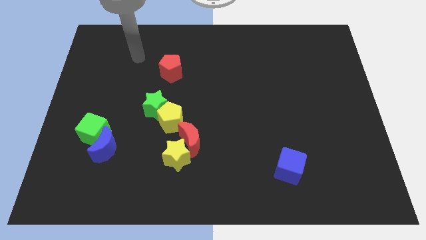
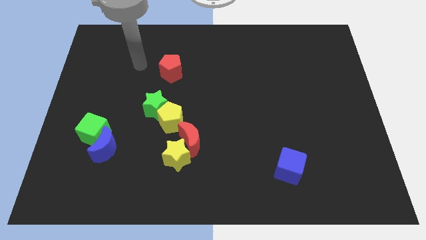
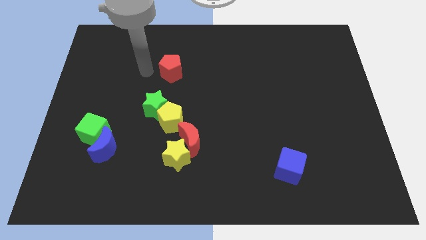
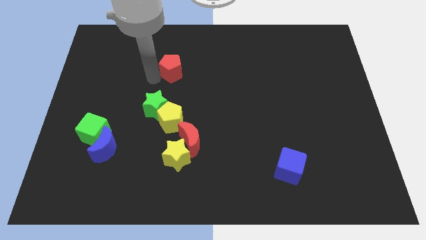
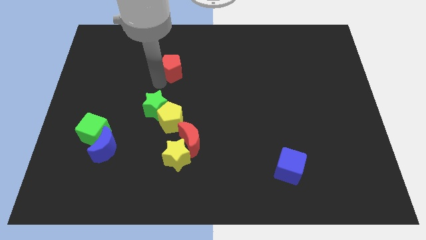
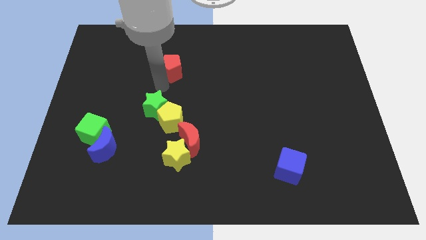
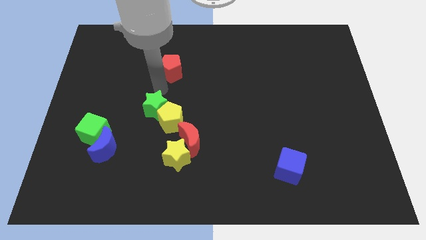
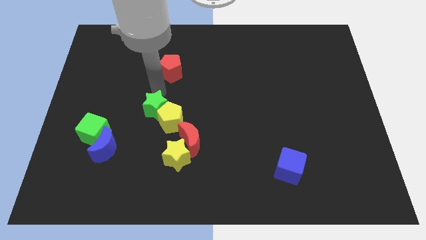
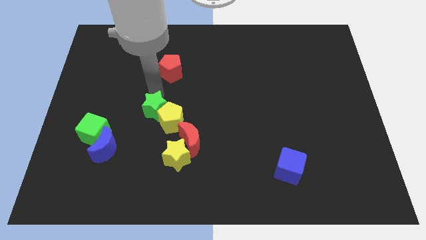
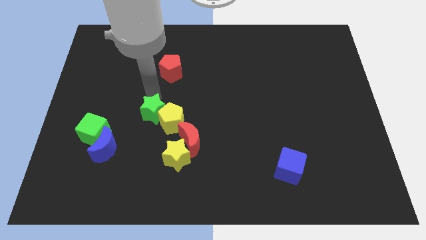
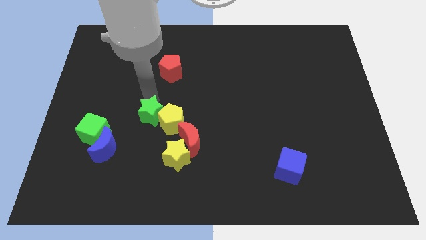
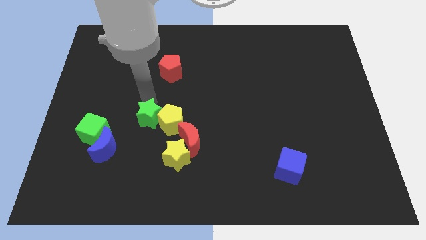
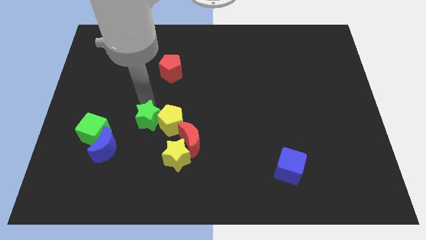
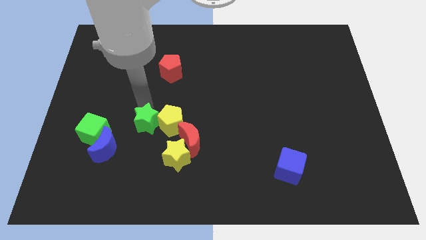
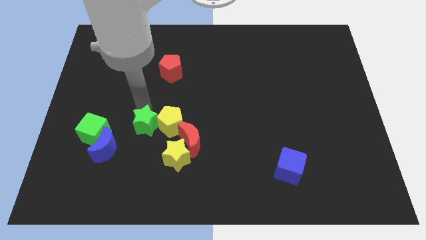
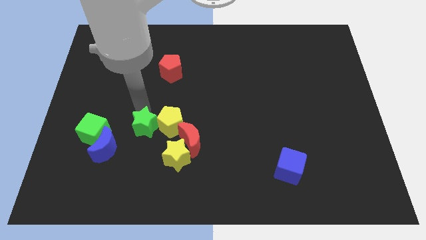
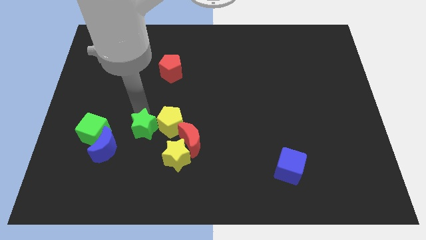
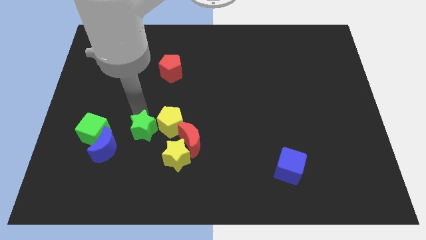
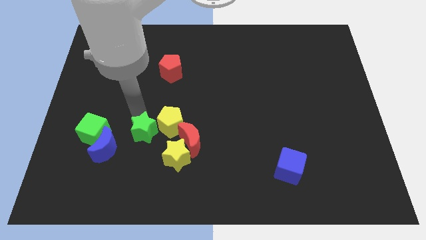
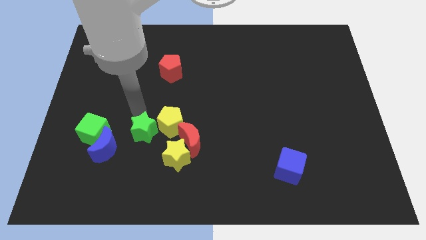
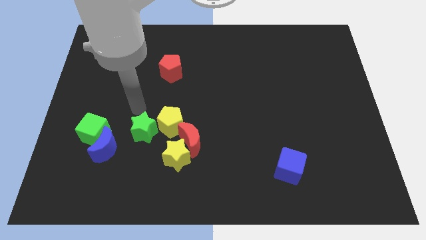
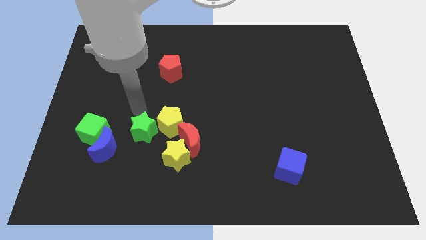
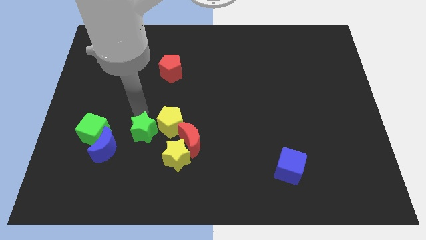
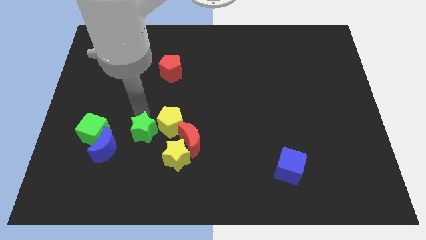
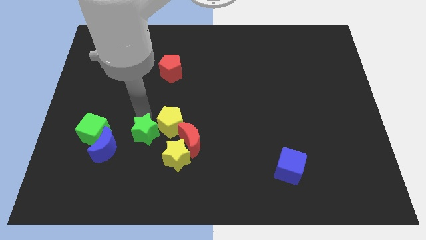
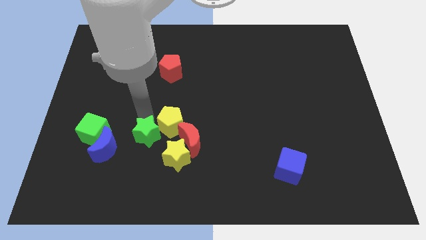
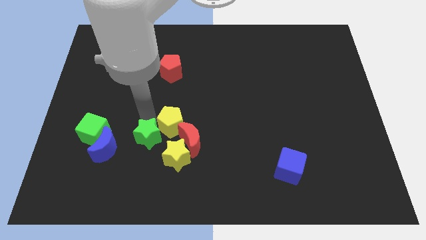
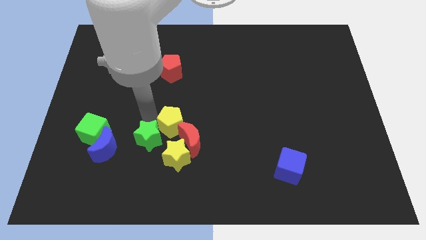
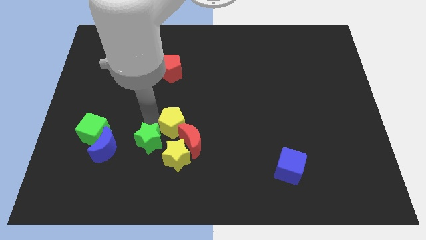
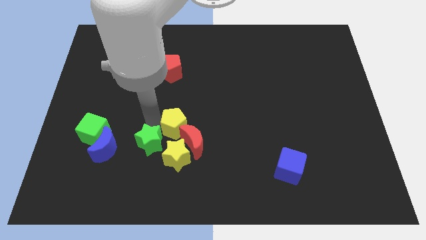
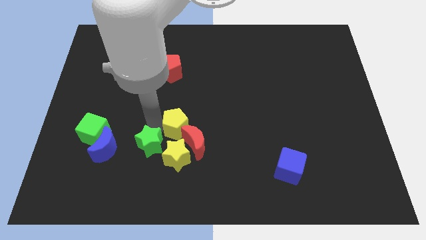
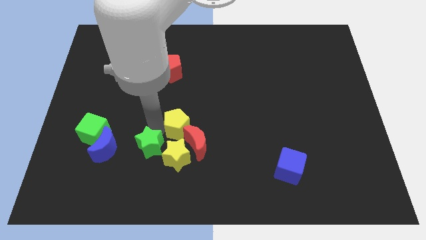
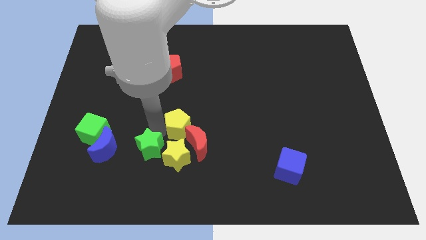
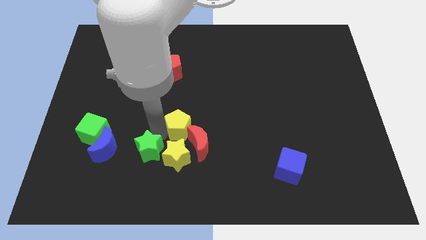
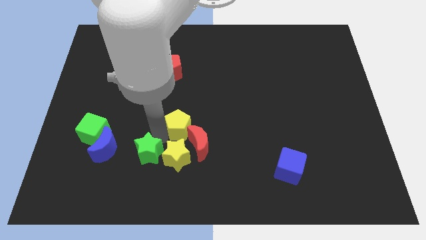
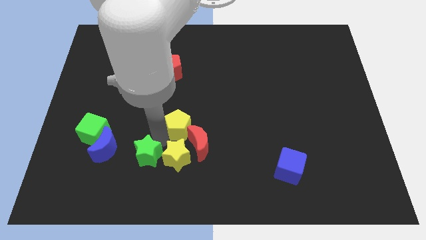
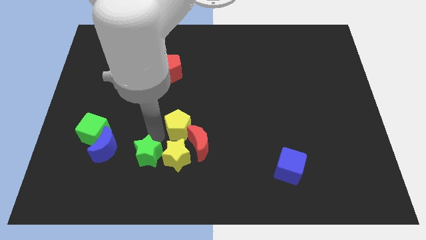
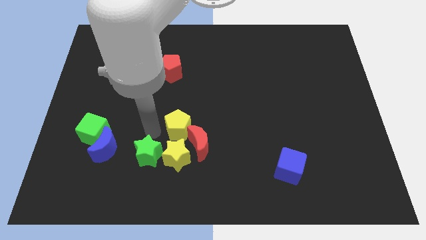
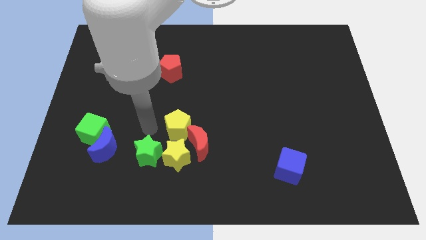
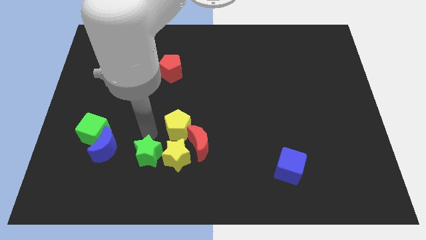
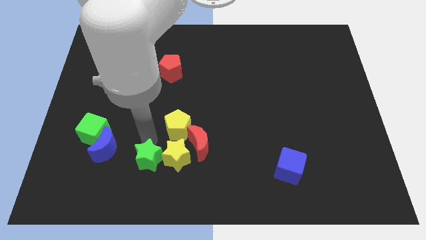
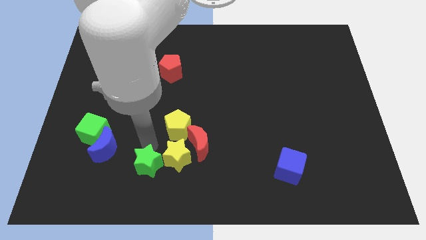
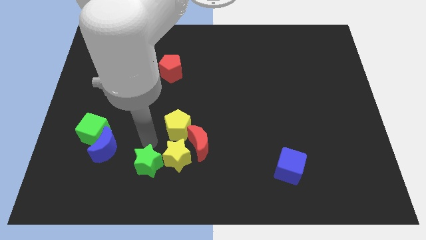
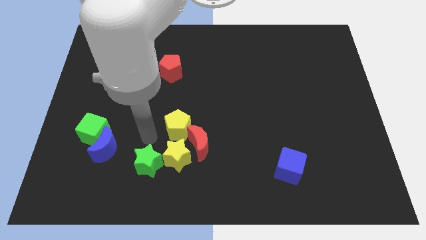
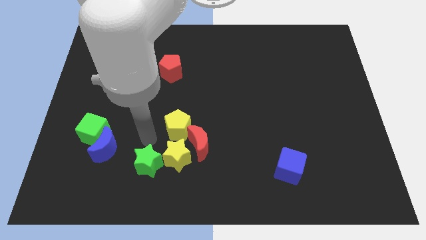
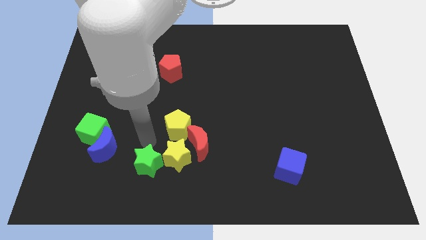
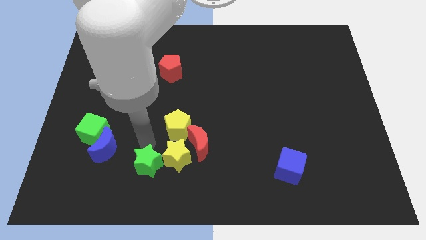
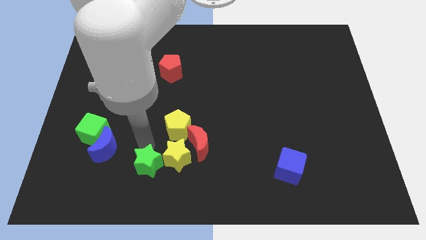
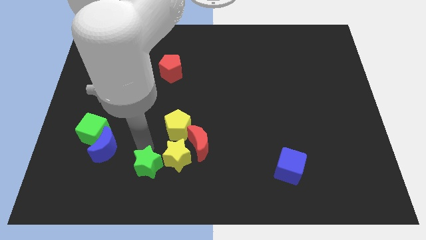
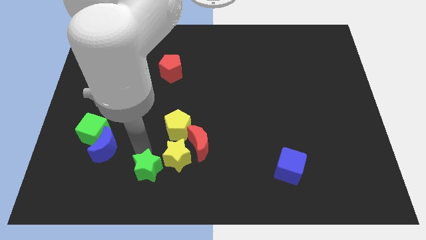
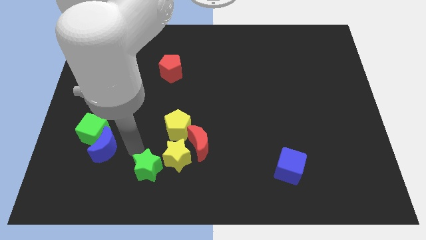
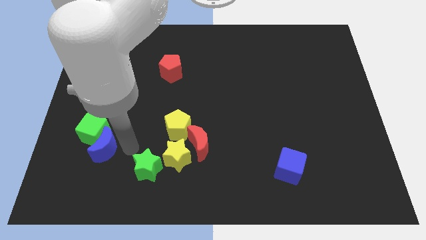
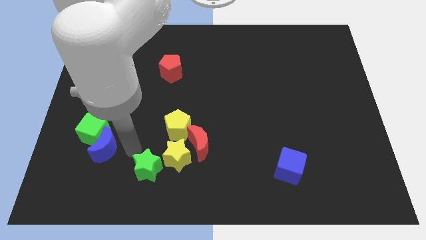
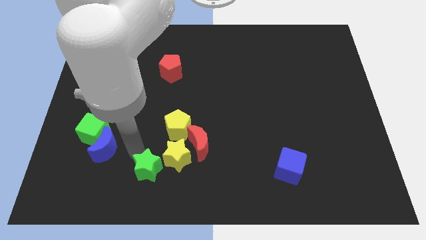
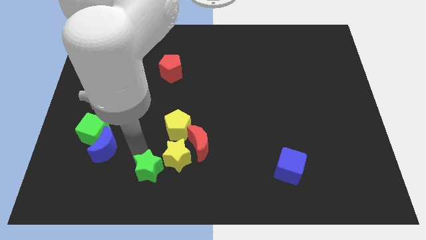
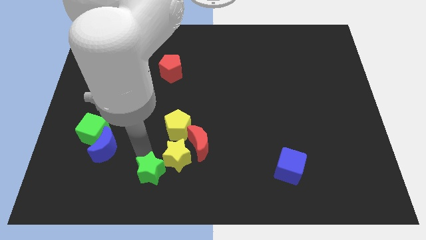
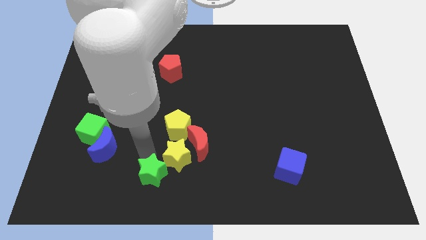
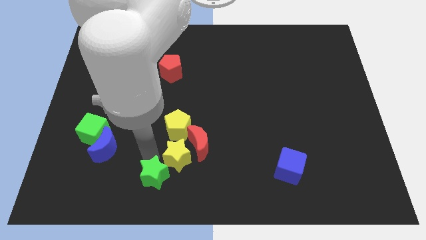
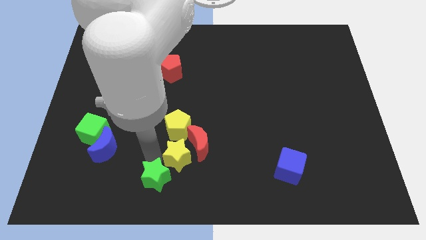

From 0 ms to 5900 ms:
put the green star to the bottom
